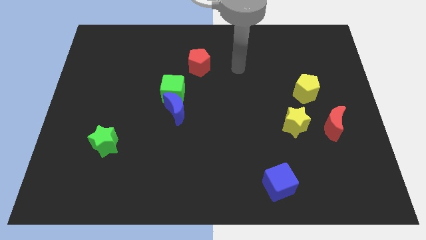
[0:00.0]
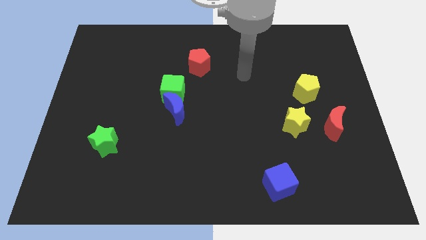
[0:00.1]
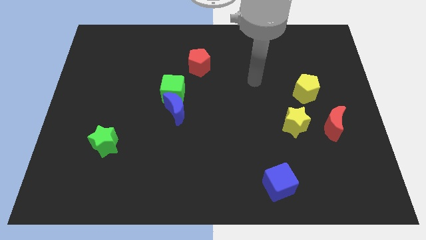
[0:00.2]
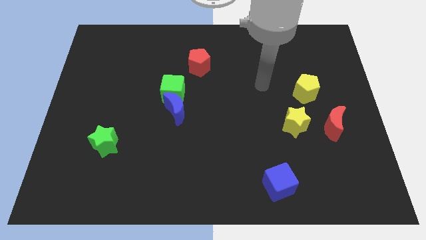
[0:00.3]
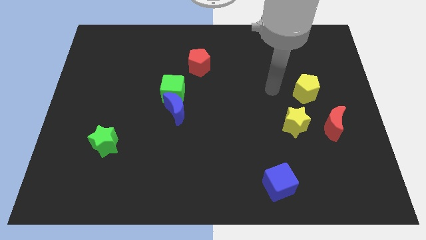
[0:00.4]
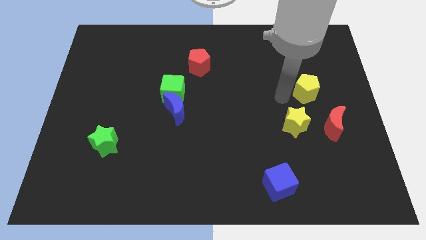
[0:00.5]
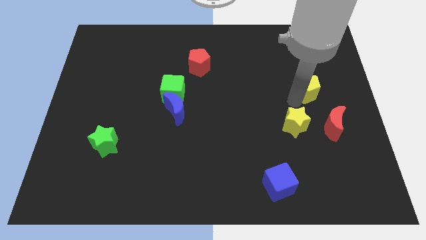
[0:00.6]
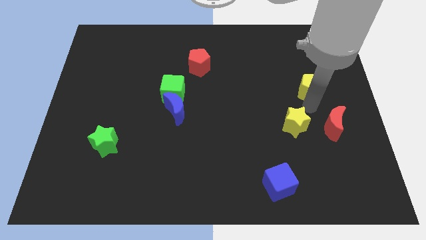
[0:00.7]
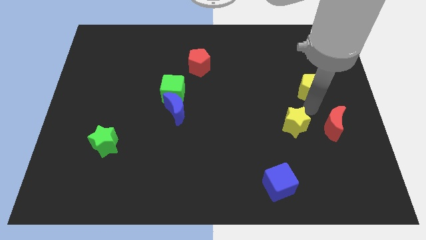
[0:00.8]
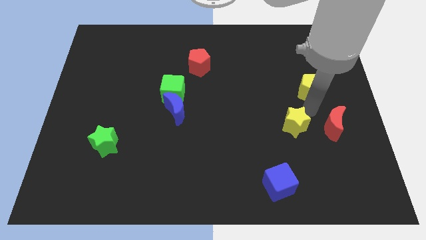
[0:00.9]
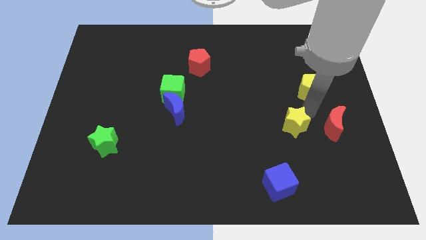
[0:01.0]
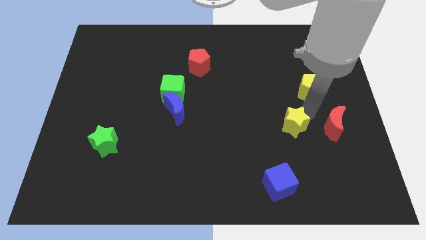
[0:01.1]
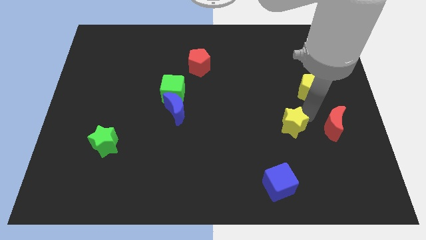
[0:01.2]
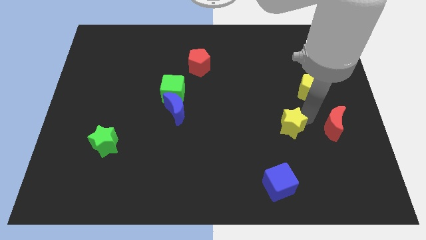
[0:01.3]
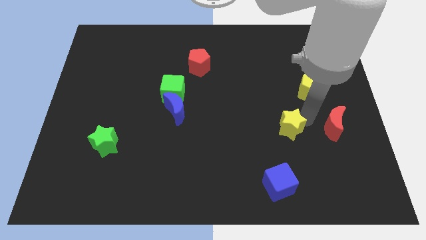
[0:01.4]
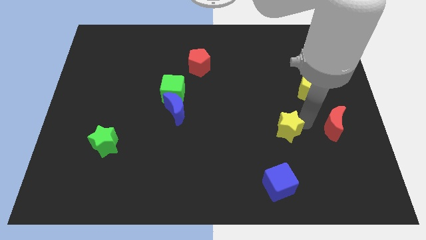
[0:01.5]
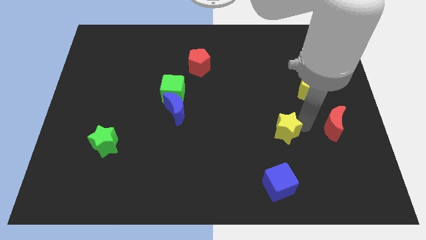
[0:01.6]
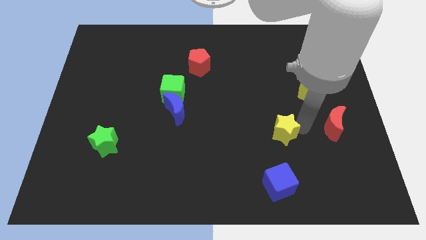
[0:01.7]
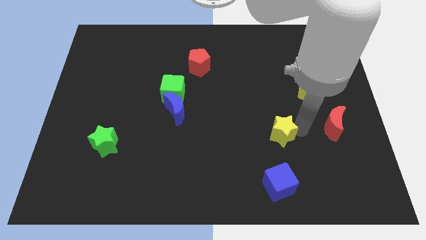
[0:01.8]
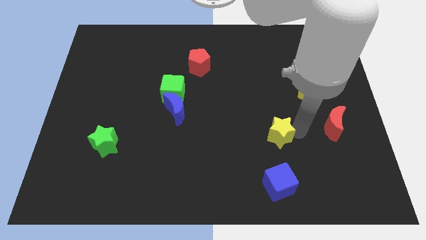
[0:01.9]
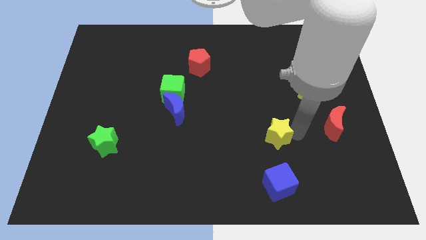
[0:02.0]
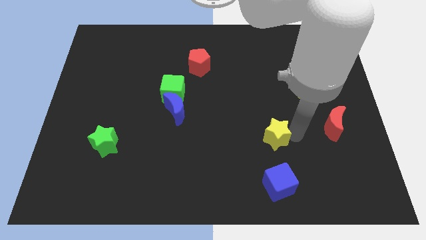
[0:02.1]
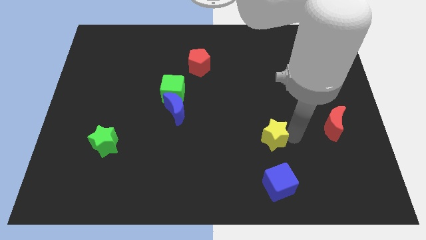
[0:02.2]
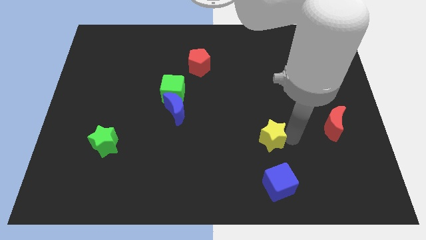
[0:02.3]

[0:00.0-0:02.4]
slightly slide the yellow star diagonally down and to the left

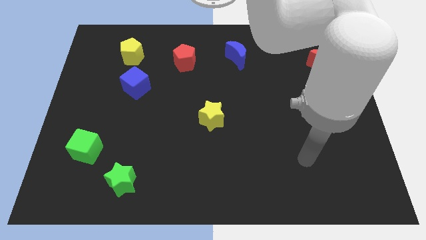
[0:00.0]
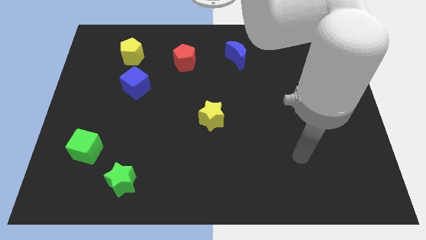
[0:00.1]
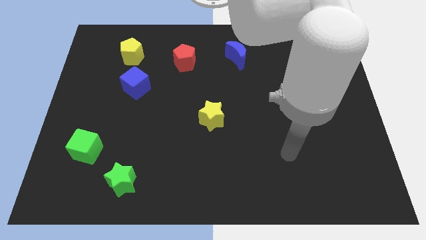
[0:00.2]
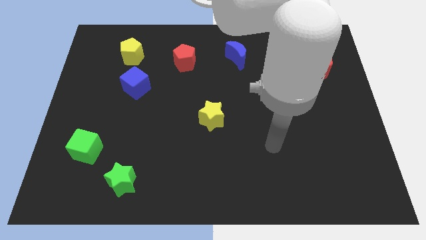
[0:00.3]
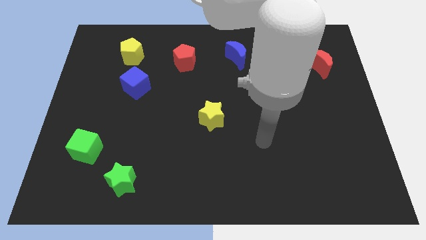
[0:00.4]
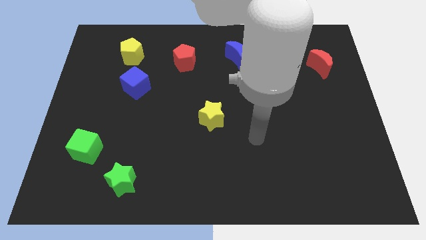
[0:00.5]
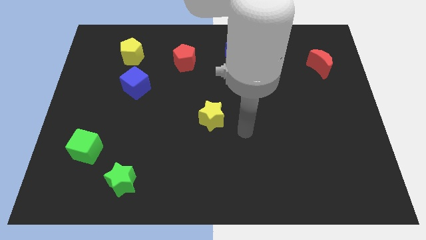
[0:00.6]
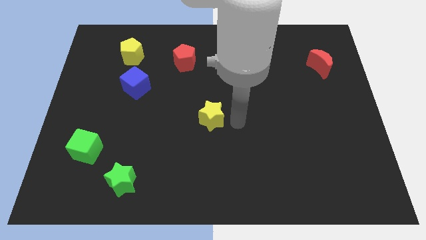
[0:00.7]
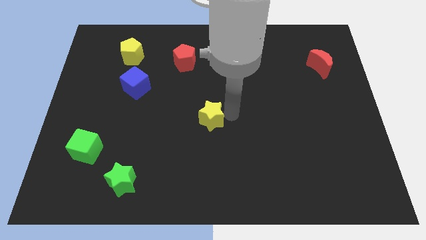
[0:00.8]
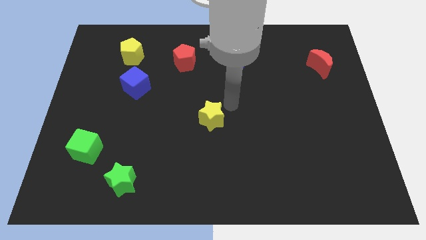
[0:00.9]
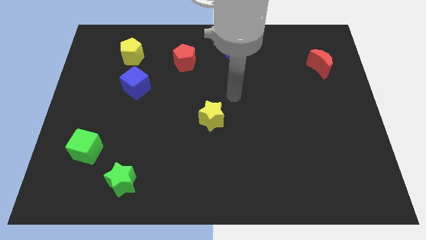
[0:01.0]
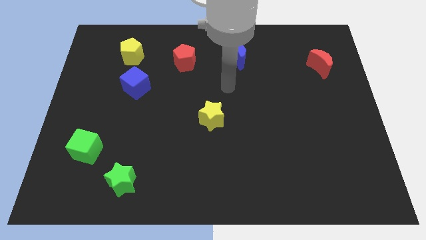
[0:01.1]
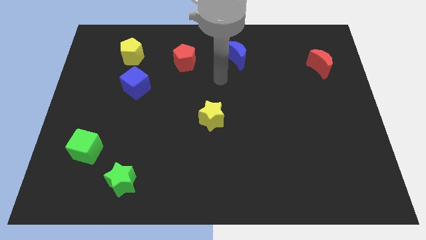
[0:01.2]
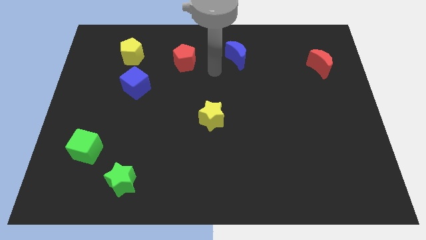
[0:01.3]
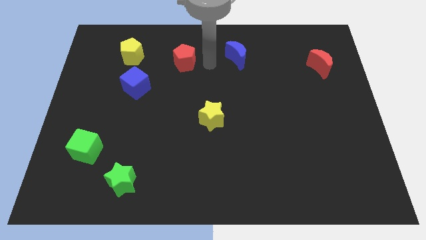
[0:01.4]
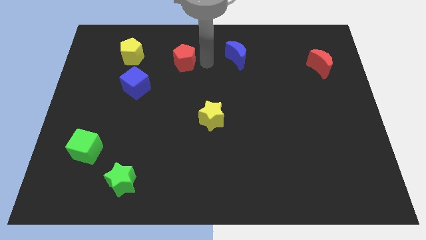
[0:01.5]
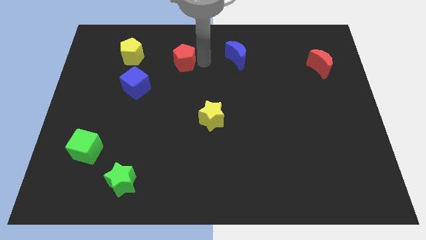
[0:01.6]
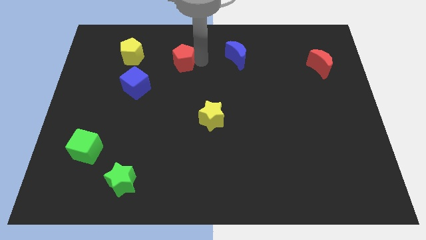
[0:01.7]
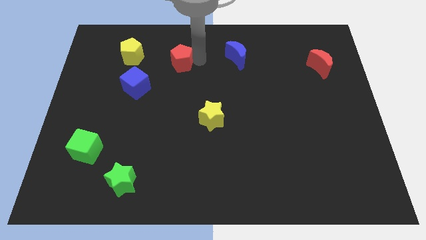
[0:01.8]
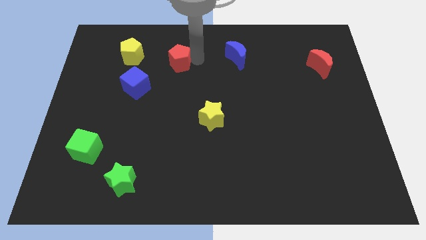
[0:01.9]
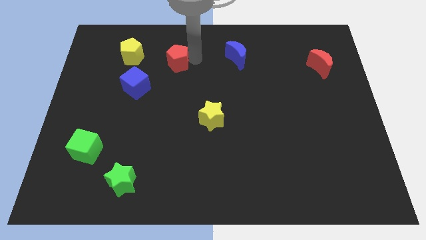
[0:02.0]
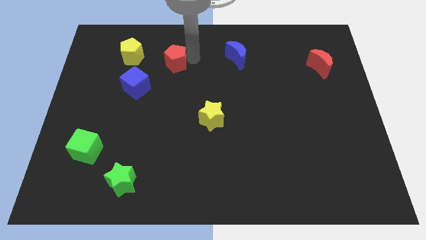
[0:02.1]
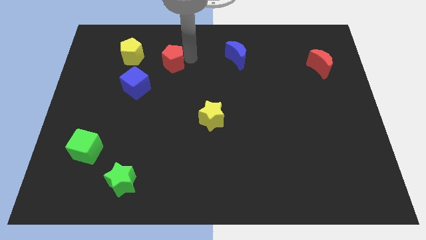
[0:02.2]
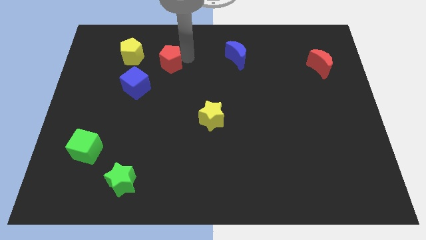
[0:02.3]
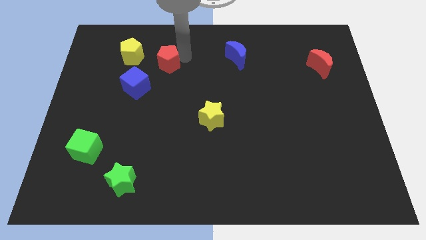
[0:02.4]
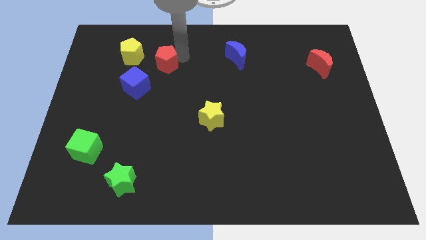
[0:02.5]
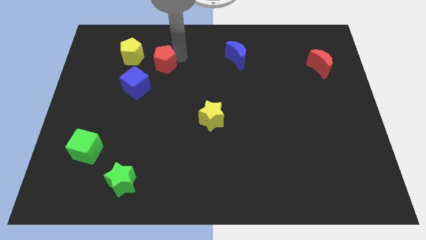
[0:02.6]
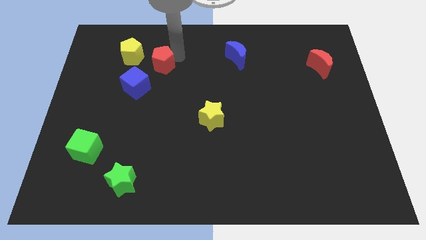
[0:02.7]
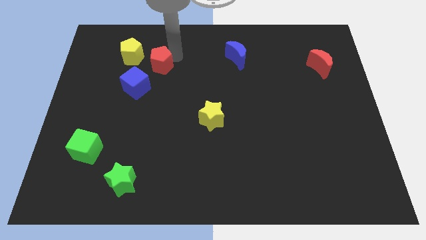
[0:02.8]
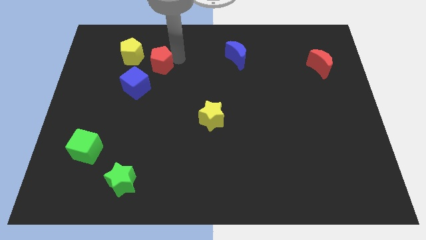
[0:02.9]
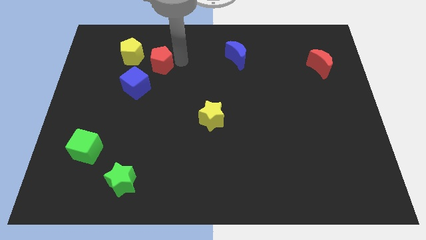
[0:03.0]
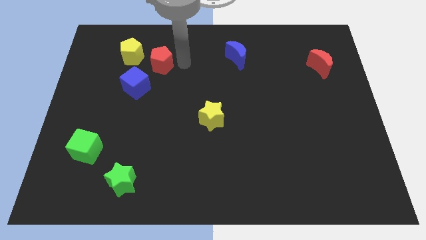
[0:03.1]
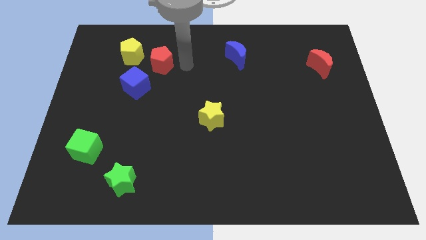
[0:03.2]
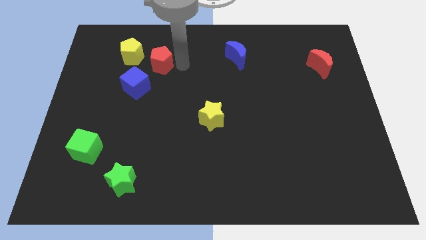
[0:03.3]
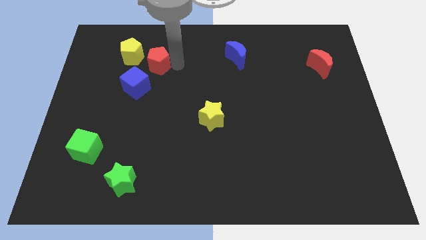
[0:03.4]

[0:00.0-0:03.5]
slightly slide the red pentagon to the left

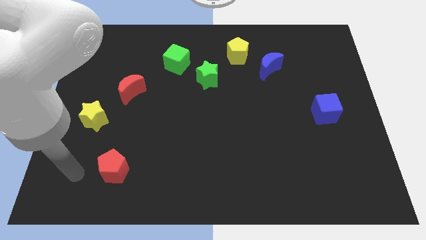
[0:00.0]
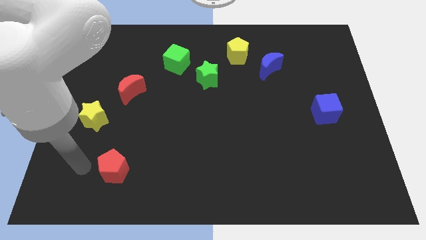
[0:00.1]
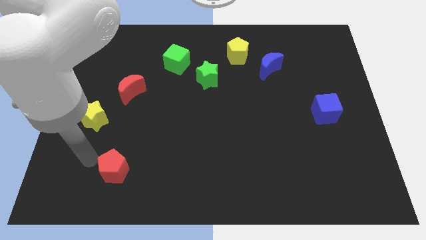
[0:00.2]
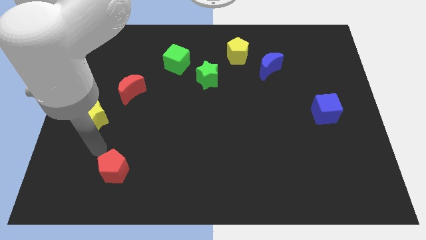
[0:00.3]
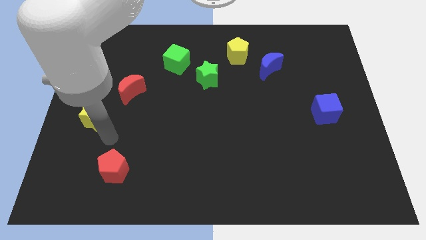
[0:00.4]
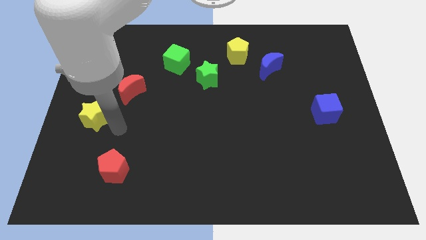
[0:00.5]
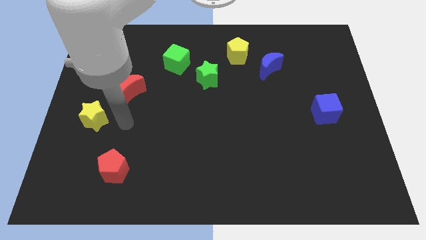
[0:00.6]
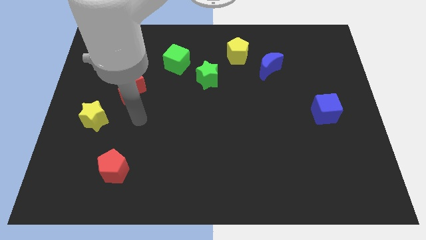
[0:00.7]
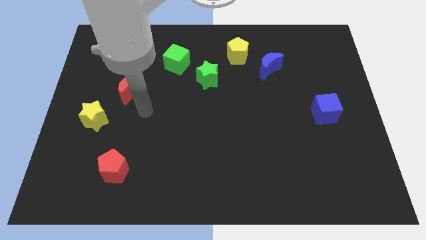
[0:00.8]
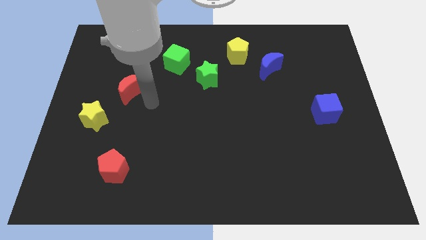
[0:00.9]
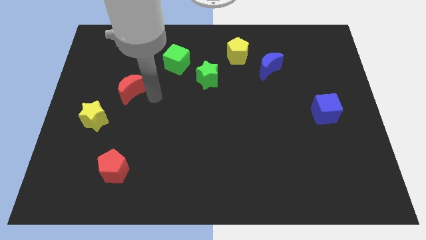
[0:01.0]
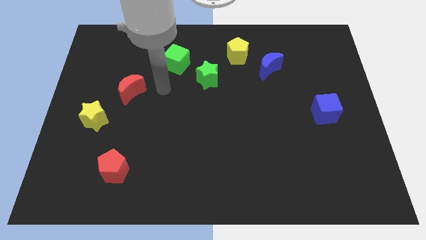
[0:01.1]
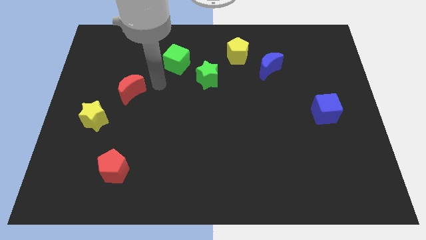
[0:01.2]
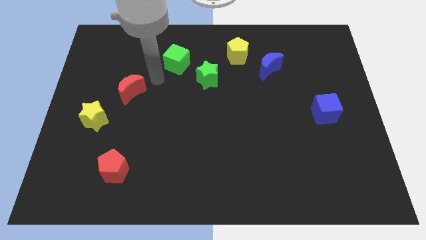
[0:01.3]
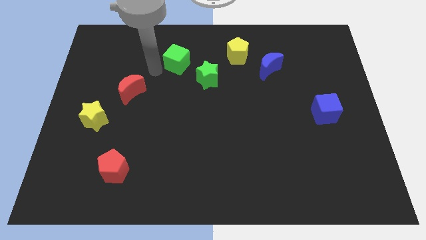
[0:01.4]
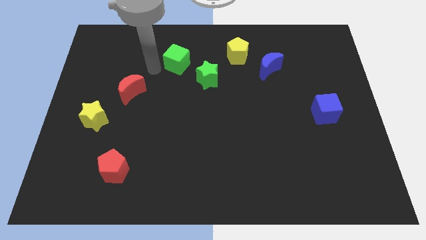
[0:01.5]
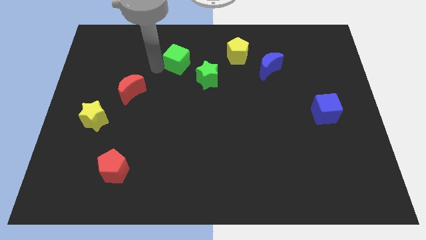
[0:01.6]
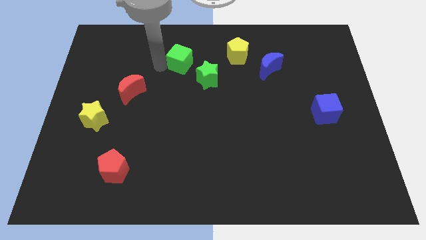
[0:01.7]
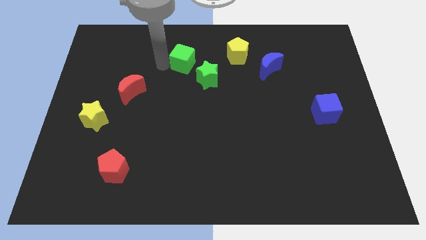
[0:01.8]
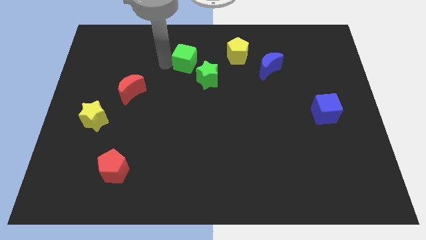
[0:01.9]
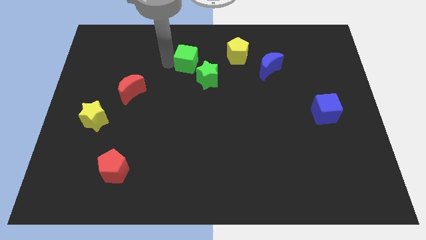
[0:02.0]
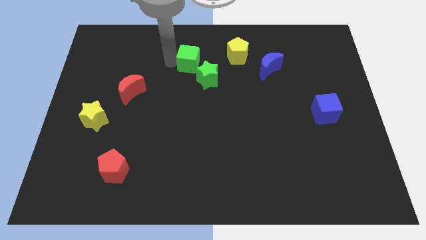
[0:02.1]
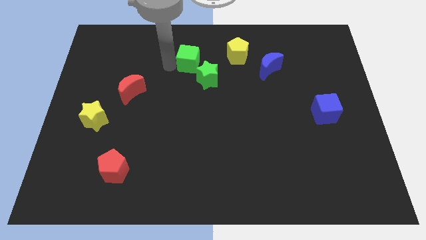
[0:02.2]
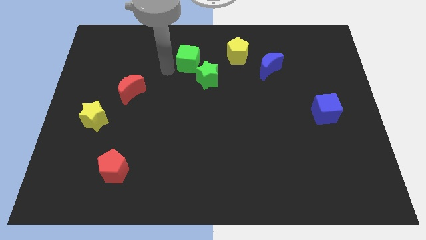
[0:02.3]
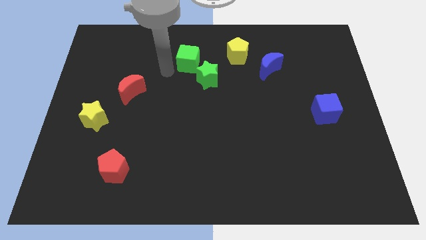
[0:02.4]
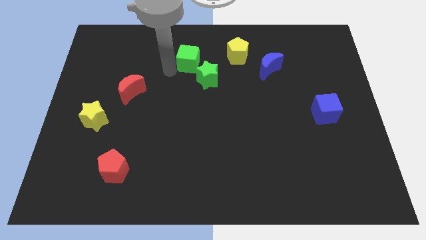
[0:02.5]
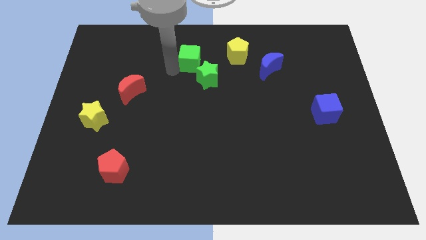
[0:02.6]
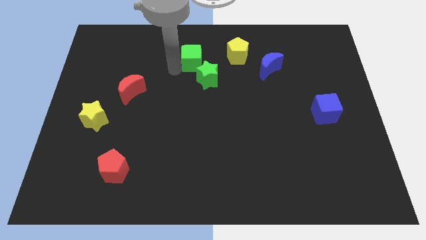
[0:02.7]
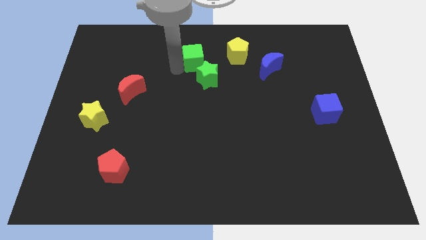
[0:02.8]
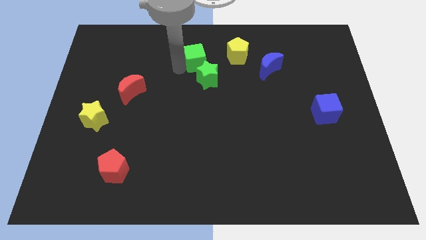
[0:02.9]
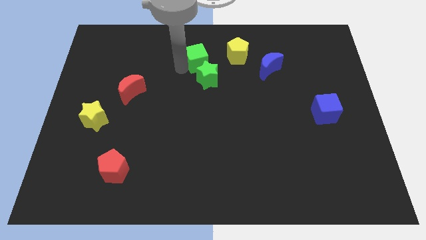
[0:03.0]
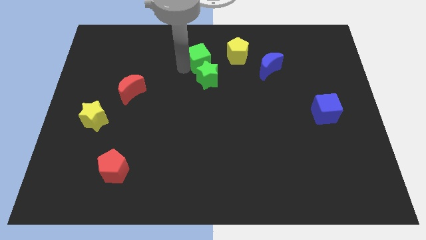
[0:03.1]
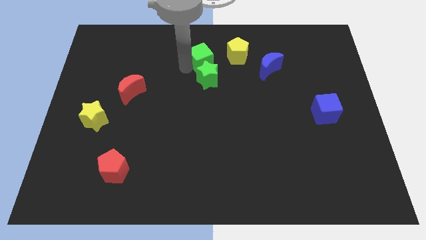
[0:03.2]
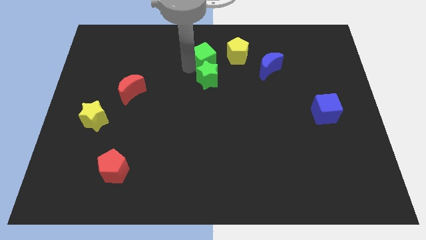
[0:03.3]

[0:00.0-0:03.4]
move the green cube somewhat to the right
